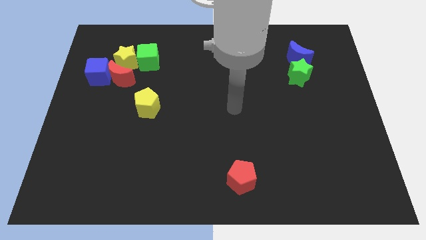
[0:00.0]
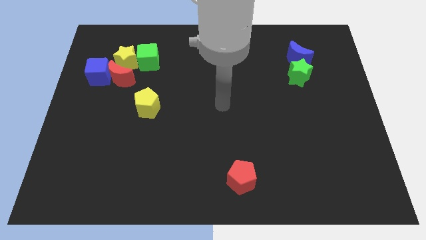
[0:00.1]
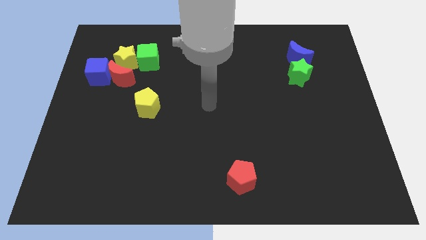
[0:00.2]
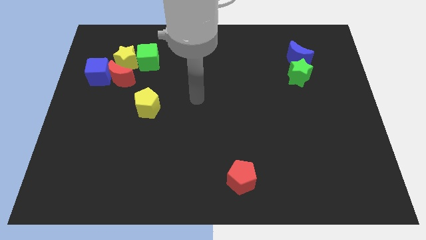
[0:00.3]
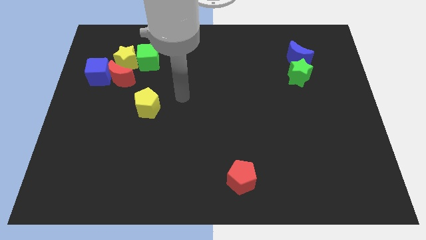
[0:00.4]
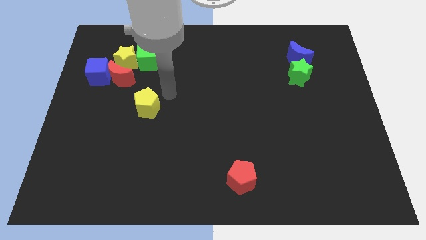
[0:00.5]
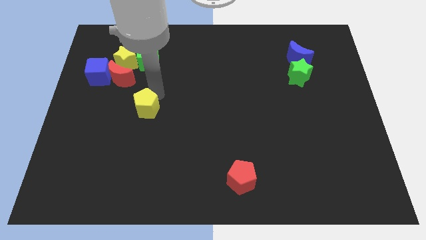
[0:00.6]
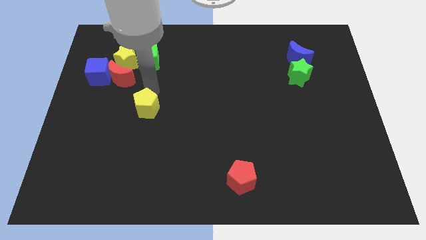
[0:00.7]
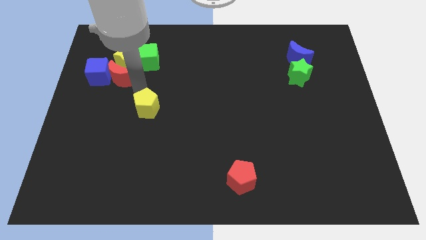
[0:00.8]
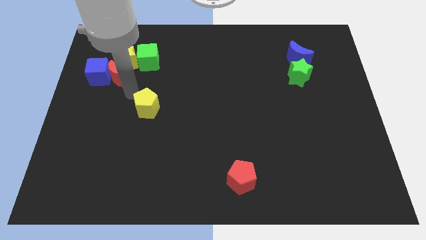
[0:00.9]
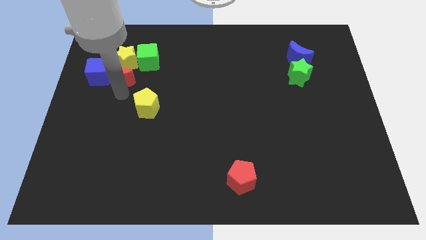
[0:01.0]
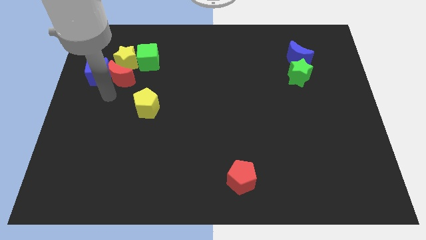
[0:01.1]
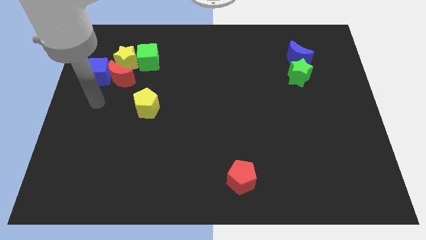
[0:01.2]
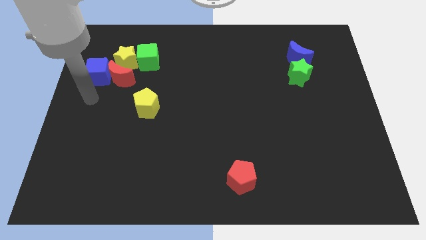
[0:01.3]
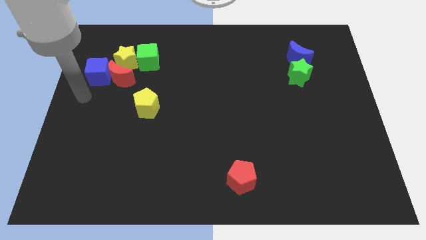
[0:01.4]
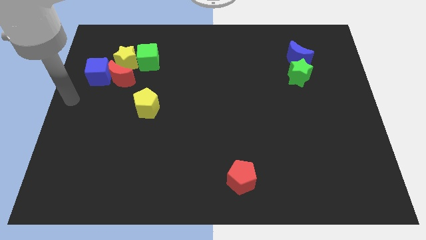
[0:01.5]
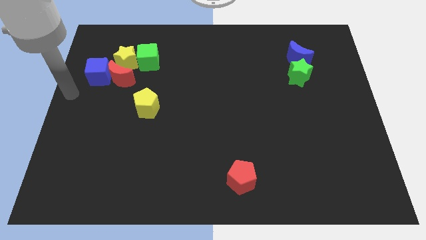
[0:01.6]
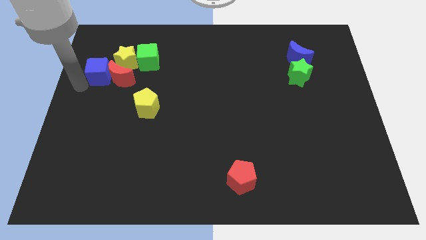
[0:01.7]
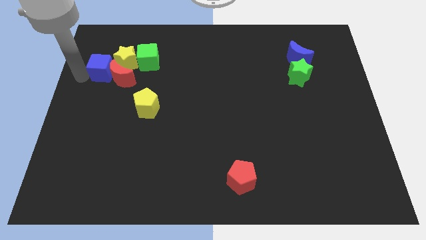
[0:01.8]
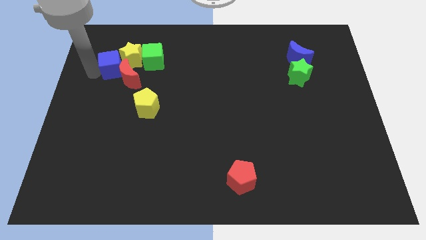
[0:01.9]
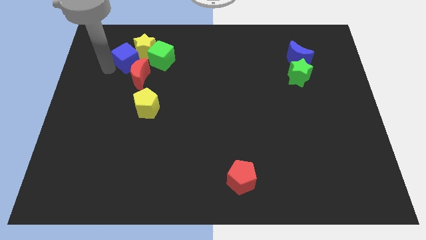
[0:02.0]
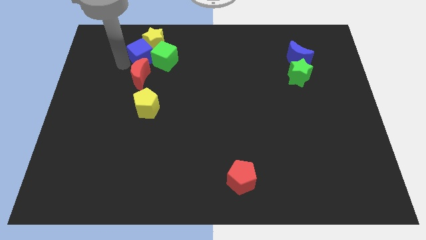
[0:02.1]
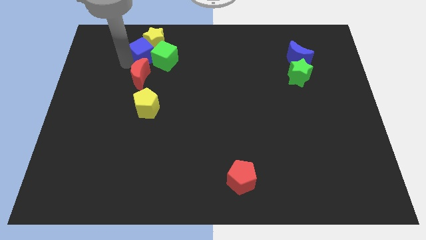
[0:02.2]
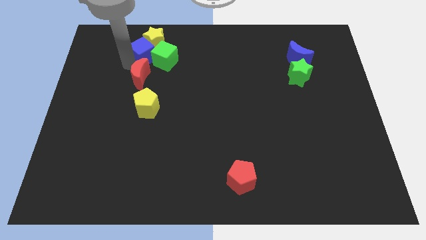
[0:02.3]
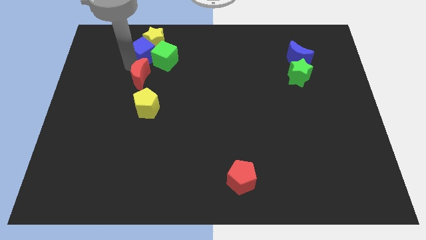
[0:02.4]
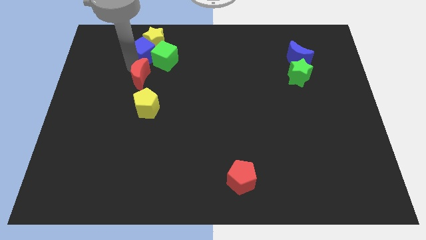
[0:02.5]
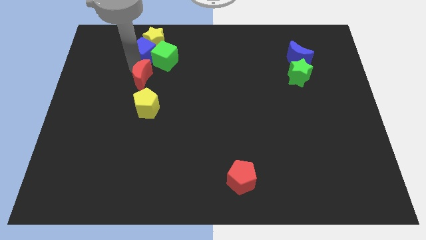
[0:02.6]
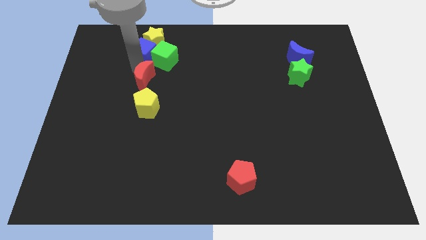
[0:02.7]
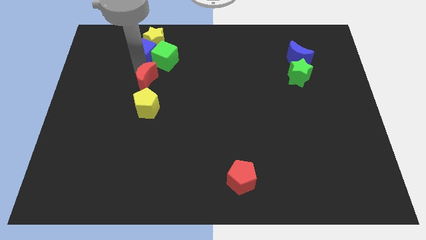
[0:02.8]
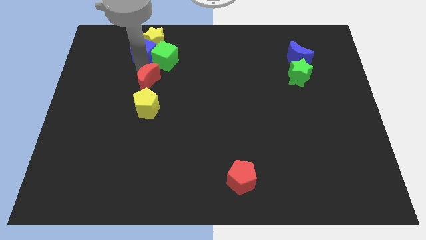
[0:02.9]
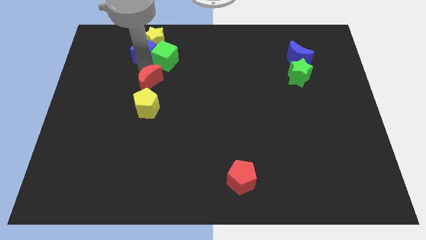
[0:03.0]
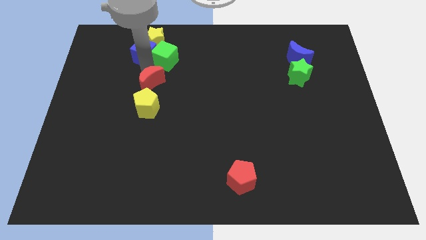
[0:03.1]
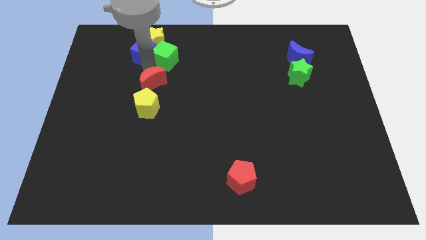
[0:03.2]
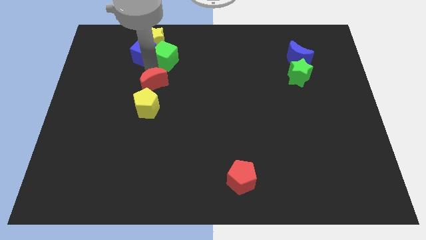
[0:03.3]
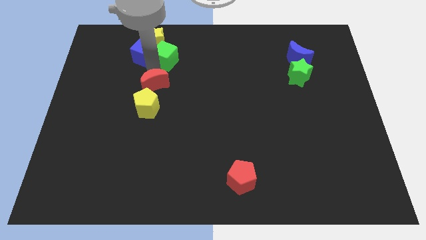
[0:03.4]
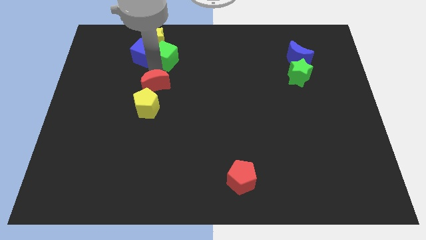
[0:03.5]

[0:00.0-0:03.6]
slide the red moon somewhat down and to the right diagonally

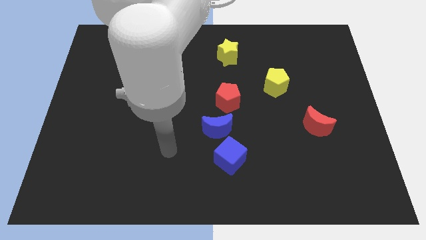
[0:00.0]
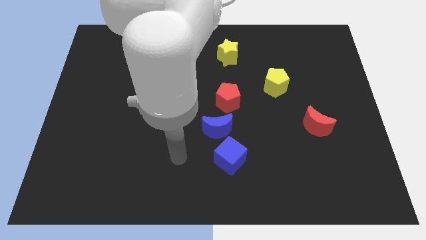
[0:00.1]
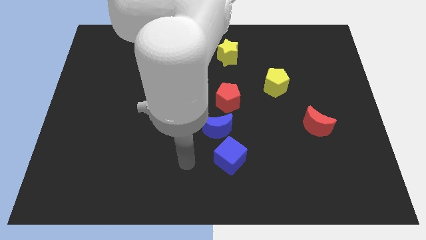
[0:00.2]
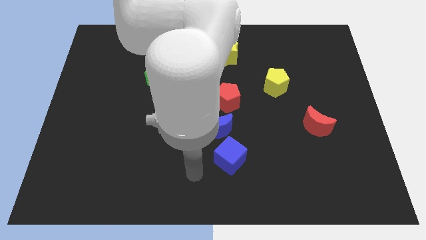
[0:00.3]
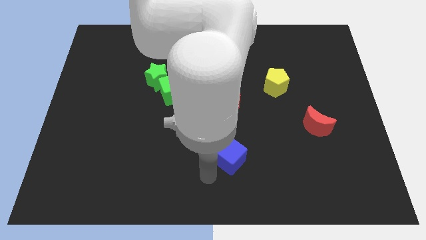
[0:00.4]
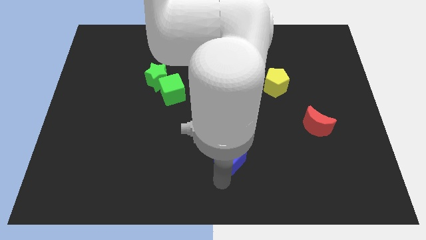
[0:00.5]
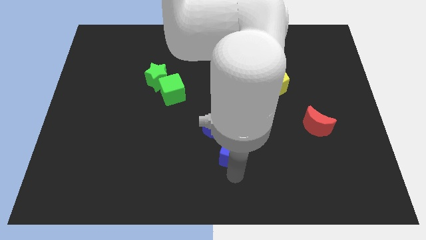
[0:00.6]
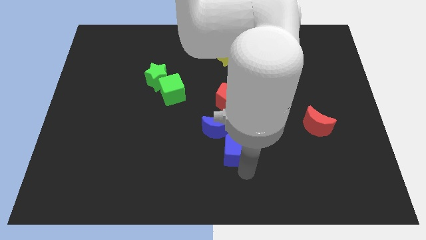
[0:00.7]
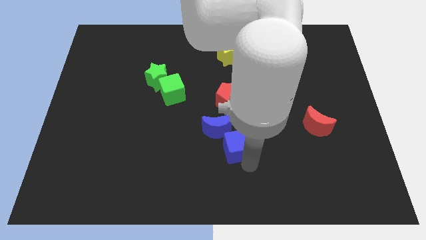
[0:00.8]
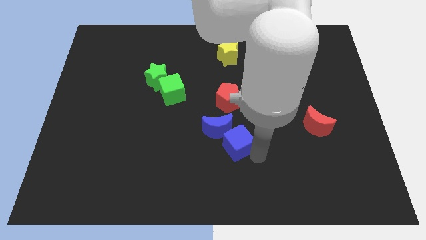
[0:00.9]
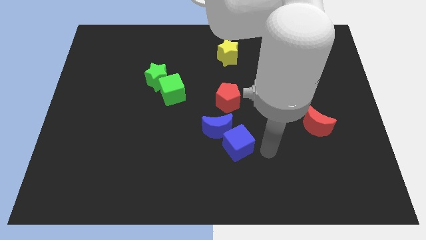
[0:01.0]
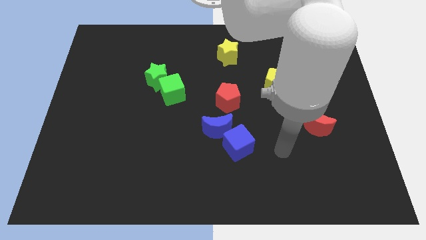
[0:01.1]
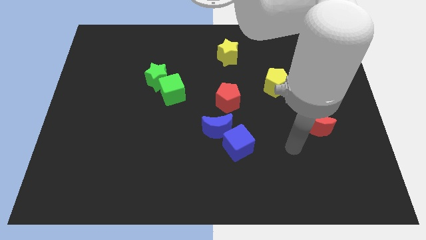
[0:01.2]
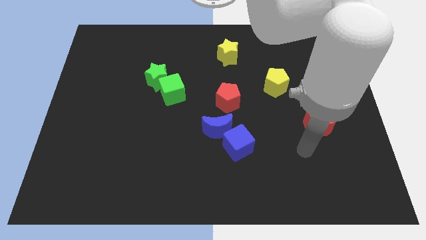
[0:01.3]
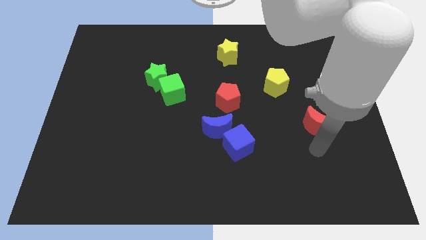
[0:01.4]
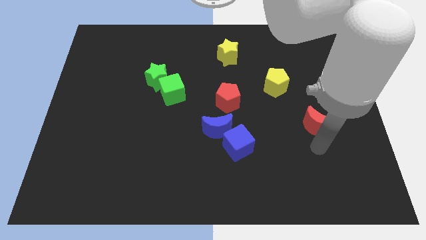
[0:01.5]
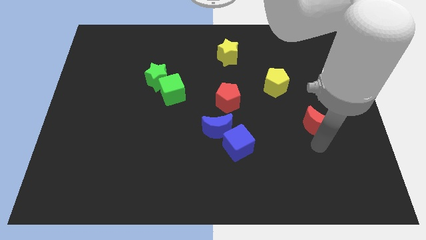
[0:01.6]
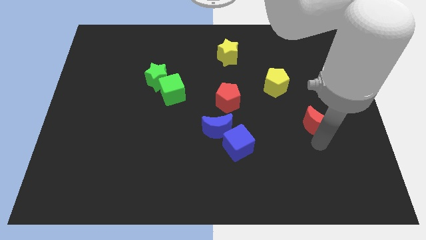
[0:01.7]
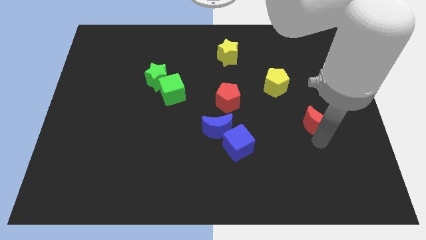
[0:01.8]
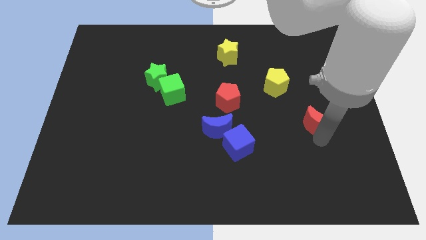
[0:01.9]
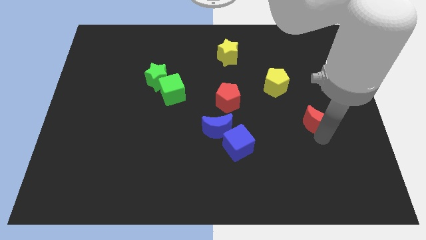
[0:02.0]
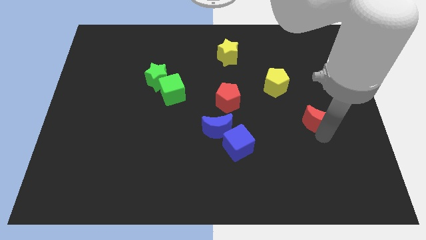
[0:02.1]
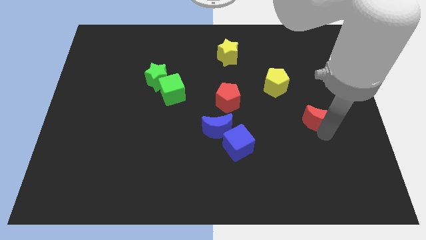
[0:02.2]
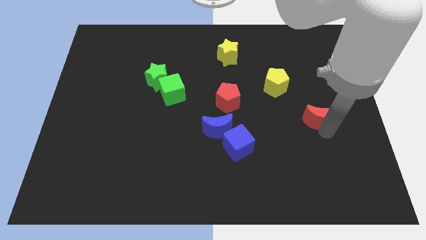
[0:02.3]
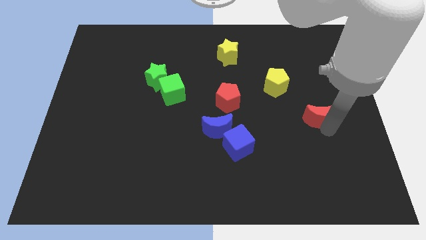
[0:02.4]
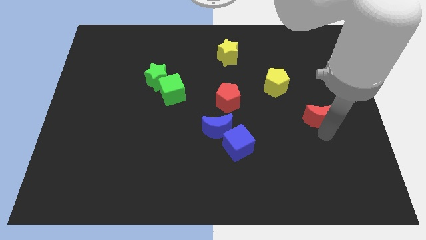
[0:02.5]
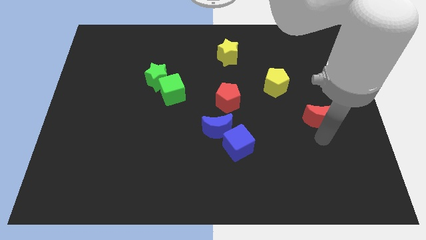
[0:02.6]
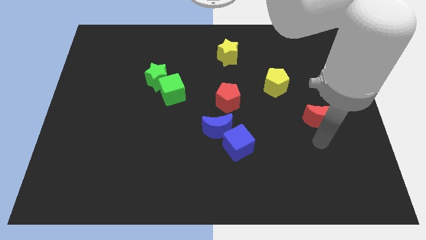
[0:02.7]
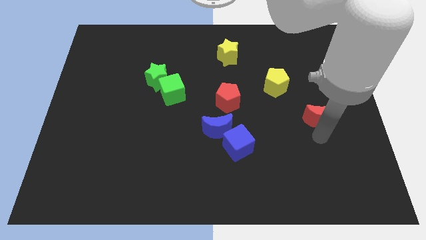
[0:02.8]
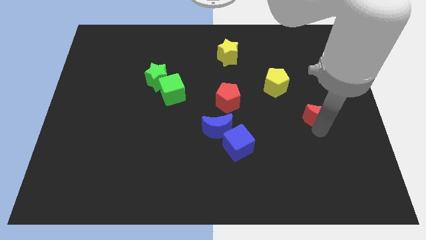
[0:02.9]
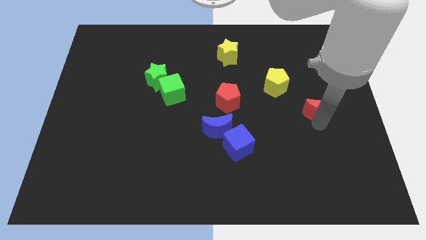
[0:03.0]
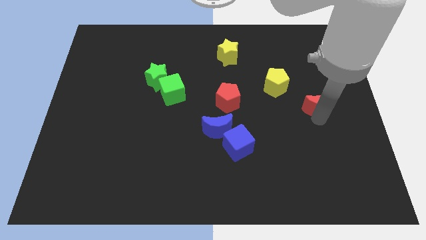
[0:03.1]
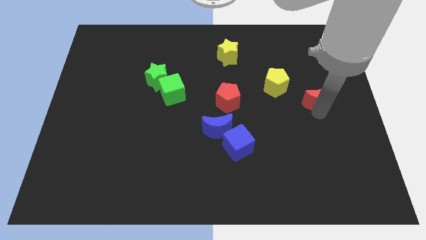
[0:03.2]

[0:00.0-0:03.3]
push the red moon a bit upwards

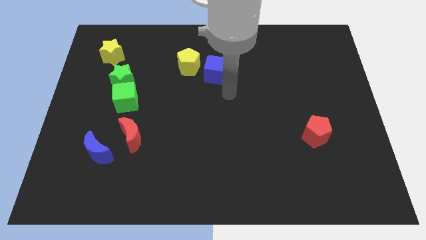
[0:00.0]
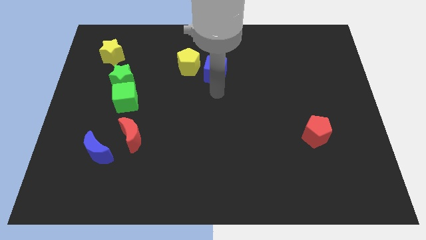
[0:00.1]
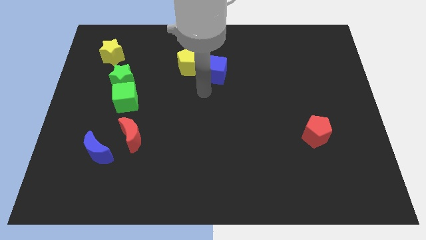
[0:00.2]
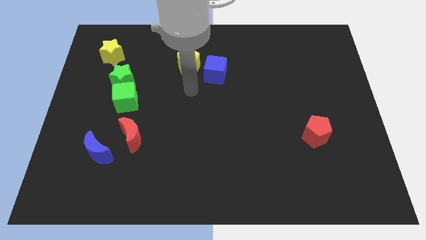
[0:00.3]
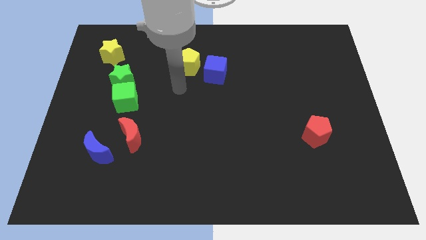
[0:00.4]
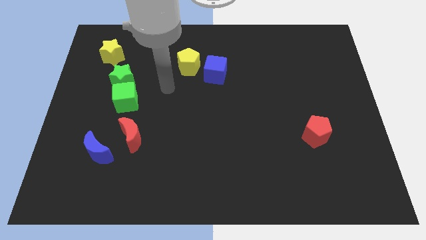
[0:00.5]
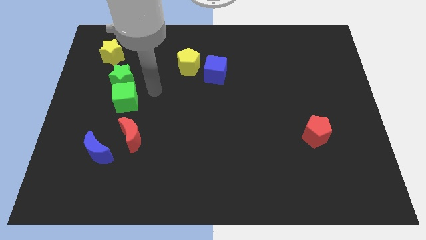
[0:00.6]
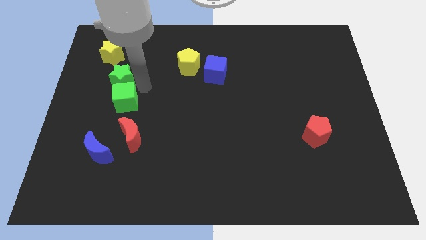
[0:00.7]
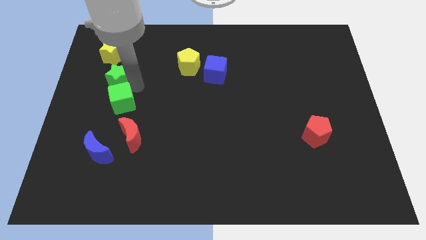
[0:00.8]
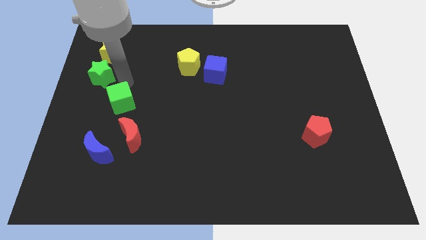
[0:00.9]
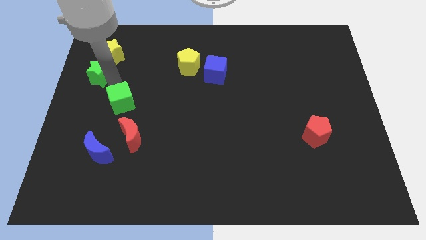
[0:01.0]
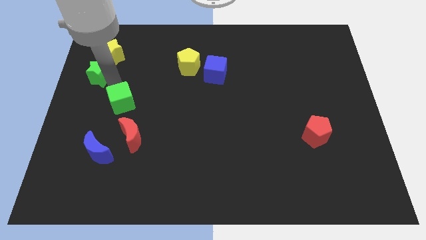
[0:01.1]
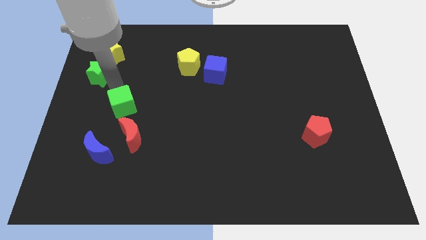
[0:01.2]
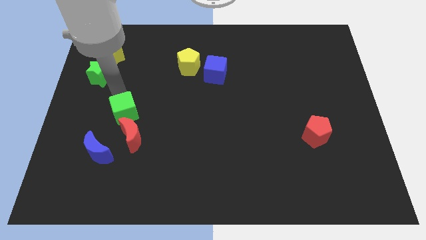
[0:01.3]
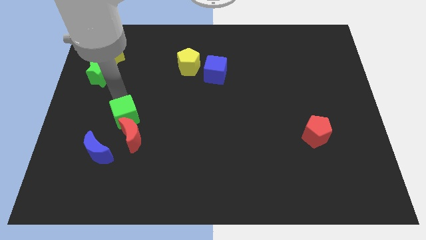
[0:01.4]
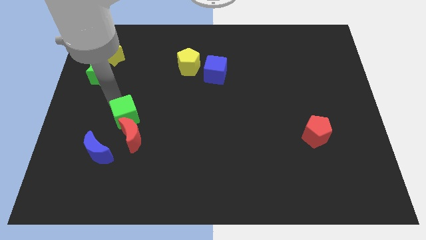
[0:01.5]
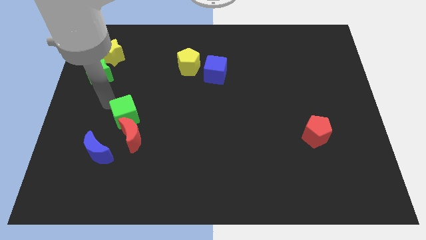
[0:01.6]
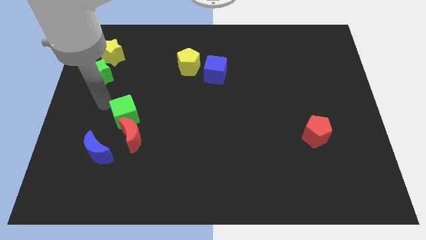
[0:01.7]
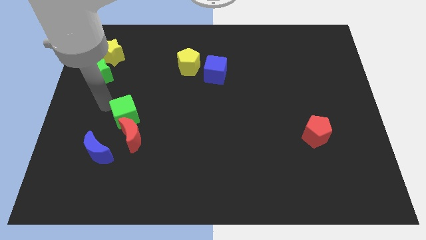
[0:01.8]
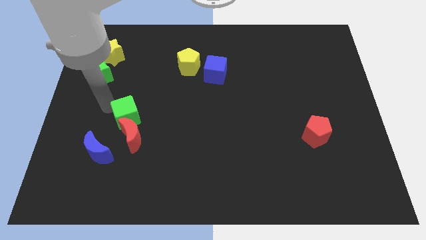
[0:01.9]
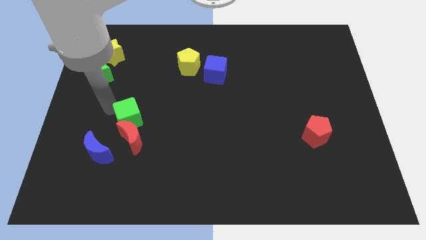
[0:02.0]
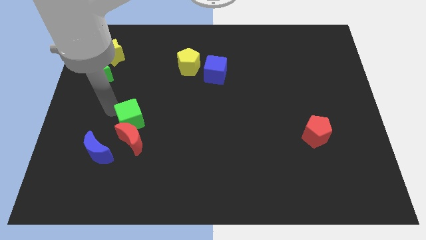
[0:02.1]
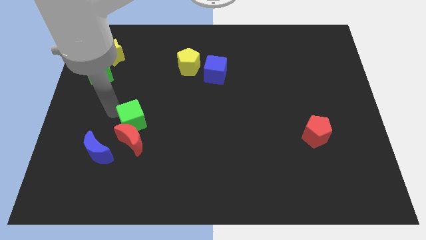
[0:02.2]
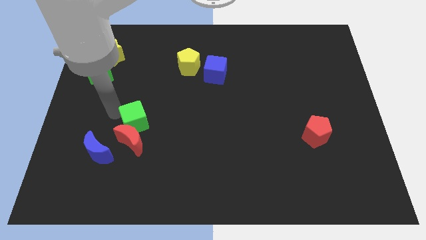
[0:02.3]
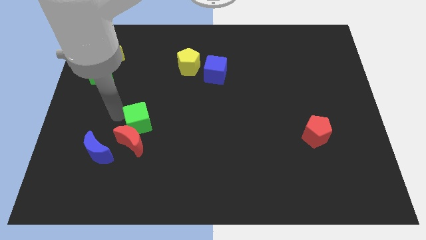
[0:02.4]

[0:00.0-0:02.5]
push the green cube a little bit downwards and right
